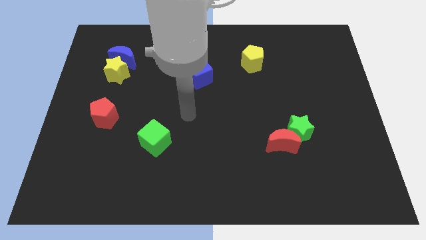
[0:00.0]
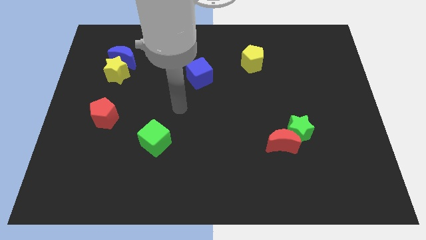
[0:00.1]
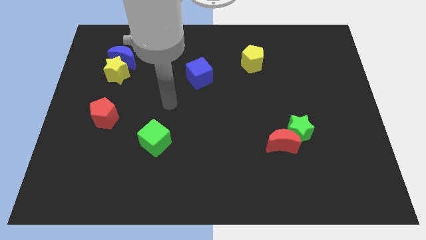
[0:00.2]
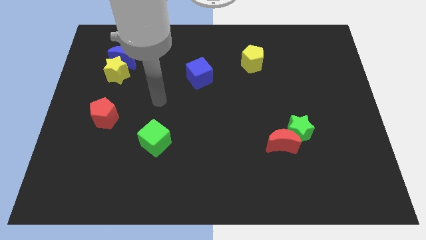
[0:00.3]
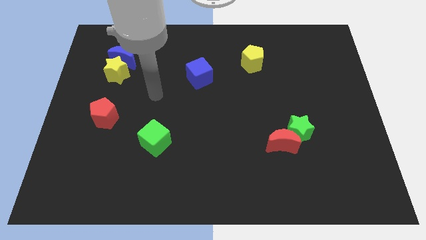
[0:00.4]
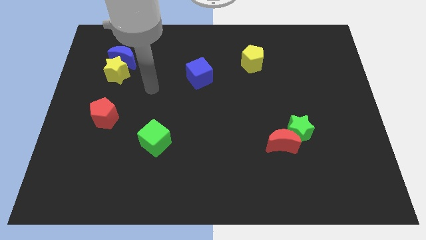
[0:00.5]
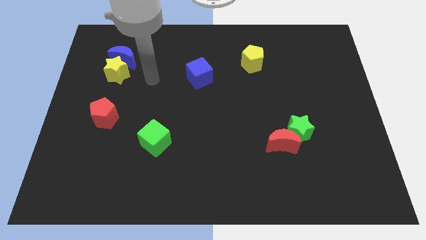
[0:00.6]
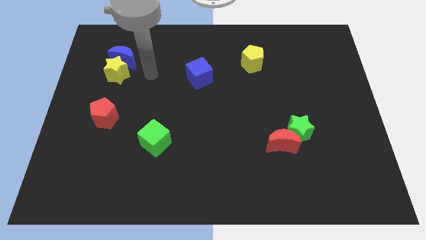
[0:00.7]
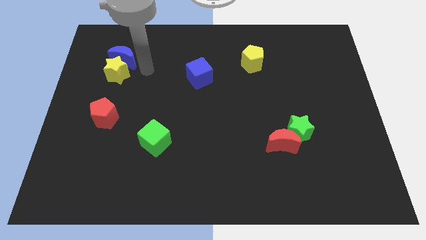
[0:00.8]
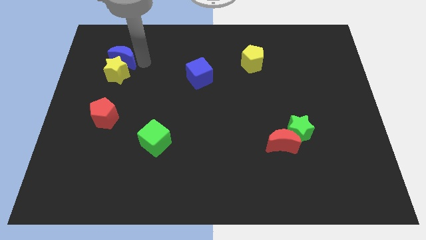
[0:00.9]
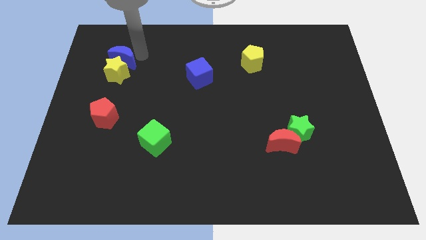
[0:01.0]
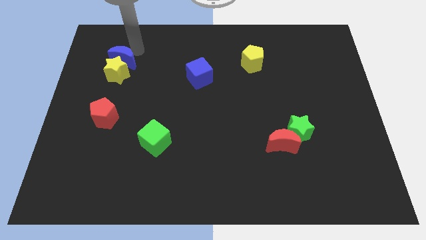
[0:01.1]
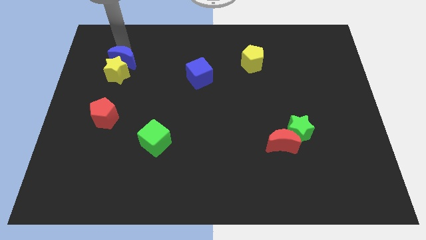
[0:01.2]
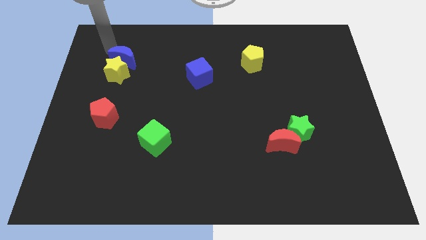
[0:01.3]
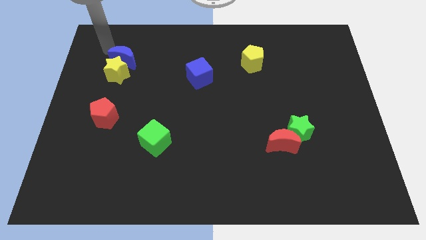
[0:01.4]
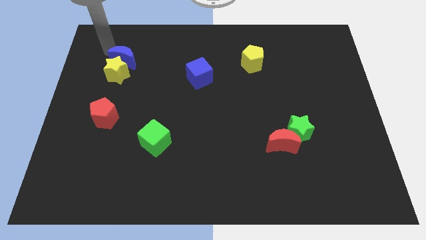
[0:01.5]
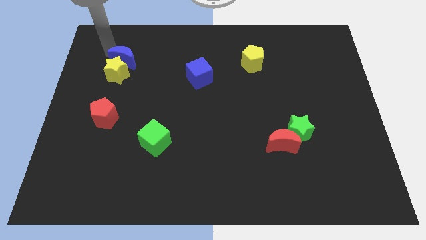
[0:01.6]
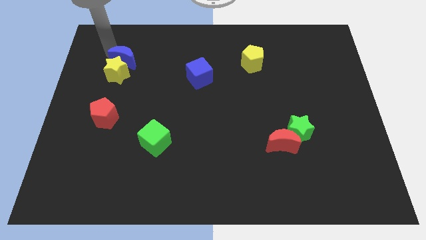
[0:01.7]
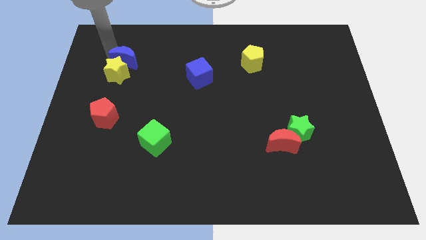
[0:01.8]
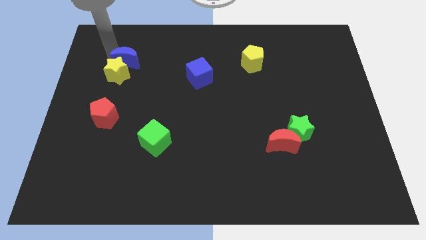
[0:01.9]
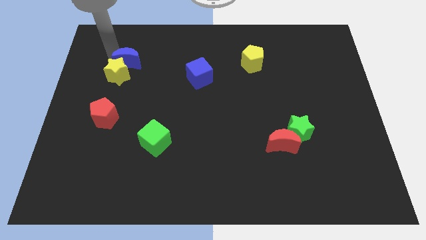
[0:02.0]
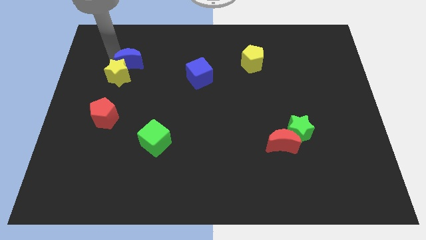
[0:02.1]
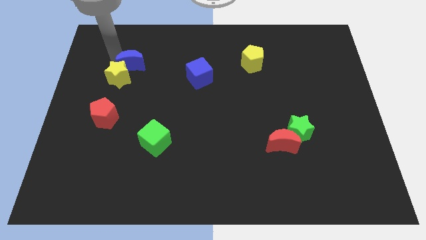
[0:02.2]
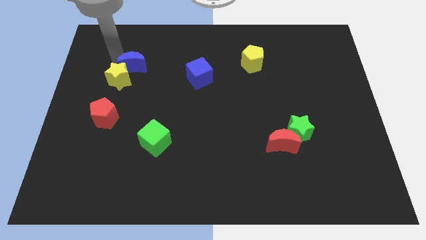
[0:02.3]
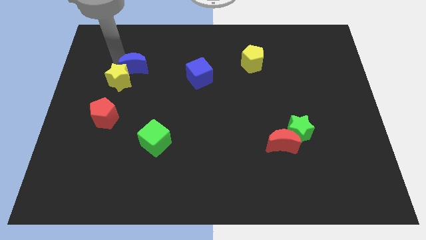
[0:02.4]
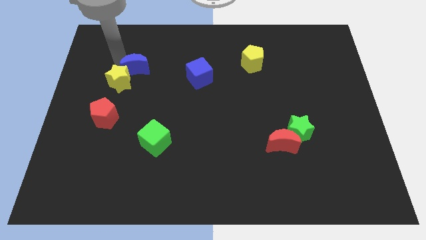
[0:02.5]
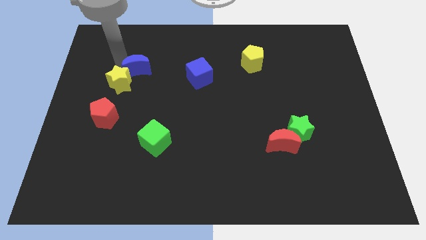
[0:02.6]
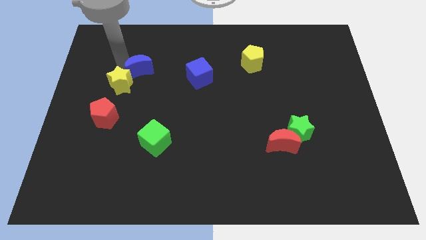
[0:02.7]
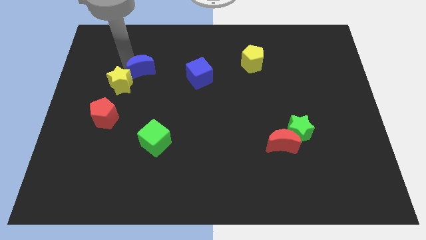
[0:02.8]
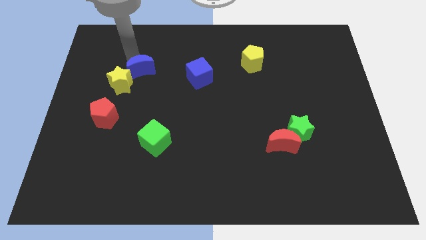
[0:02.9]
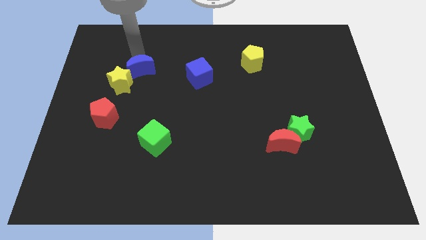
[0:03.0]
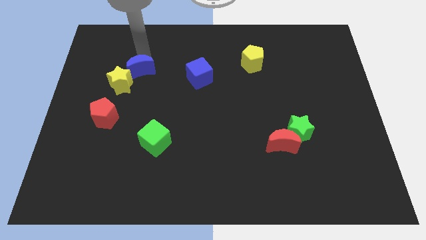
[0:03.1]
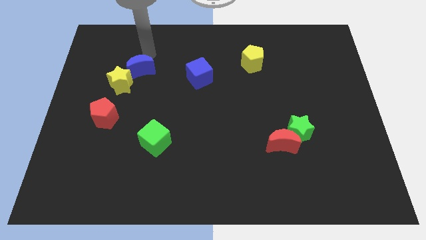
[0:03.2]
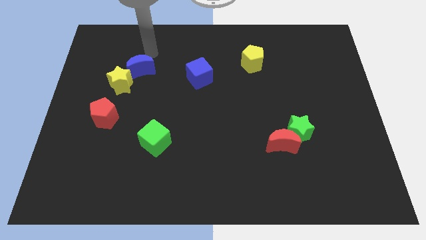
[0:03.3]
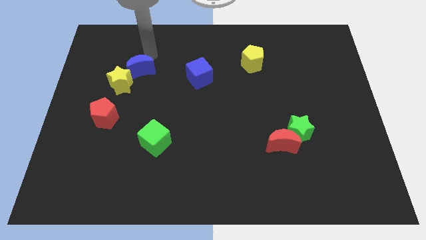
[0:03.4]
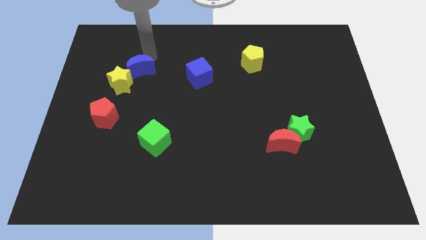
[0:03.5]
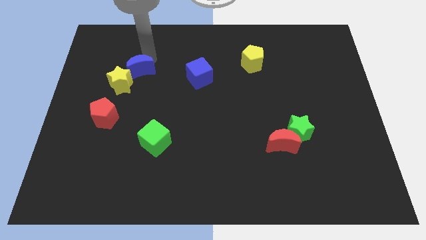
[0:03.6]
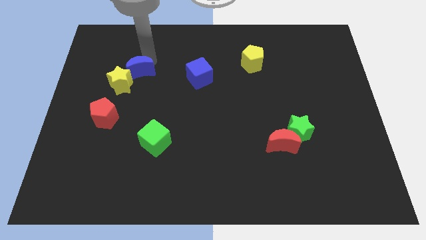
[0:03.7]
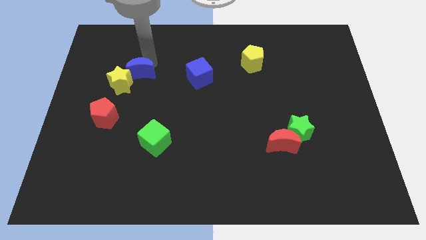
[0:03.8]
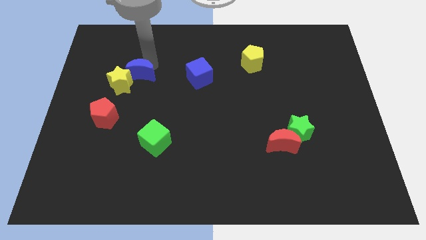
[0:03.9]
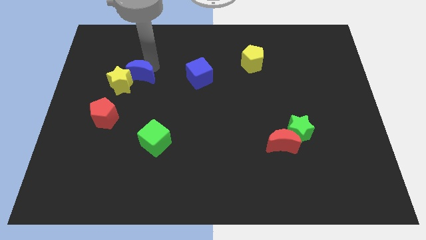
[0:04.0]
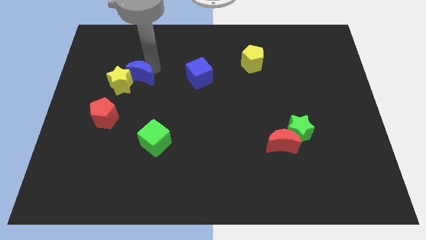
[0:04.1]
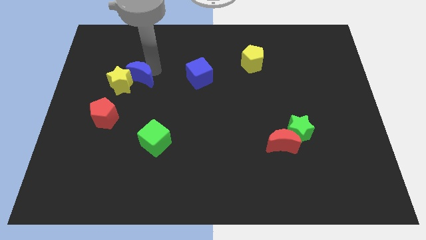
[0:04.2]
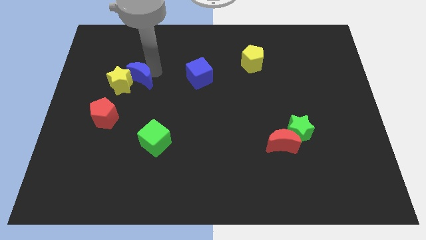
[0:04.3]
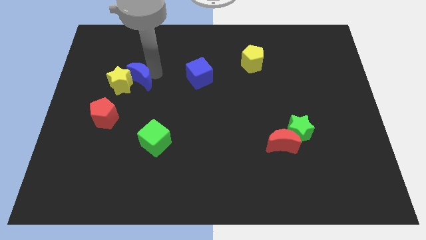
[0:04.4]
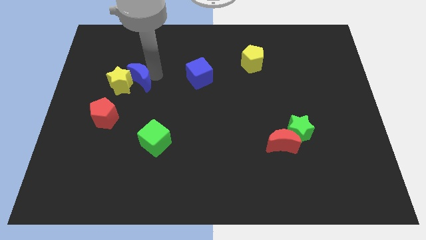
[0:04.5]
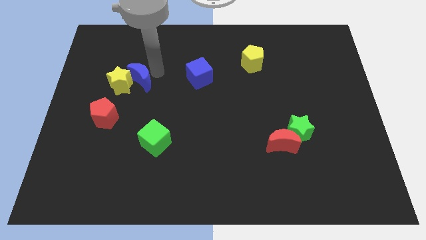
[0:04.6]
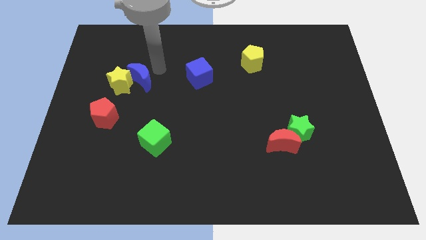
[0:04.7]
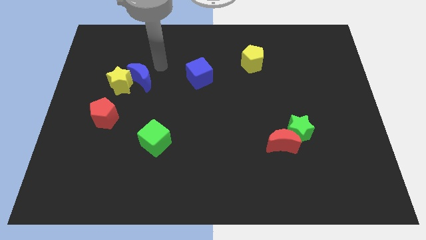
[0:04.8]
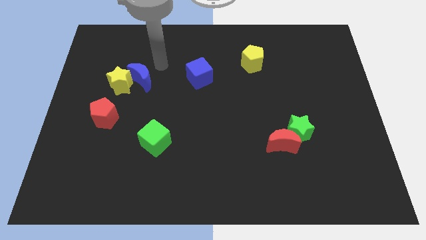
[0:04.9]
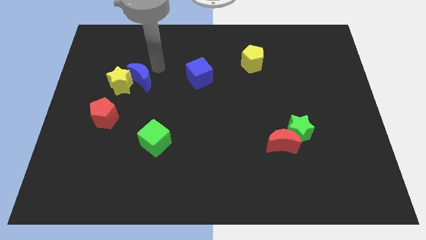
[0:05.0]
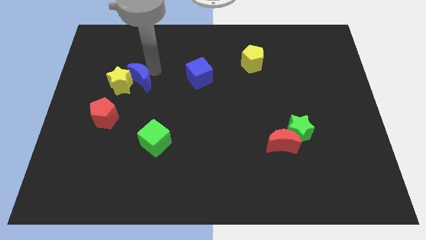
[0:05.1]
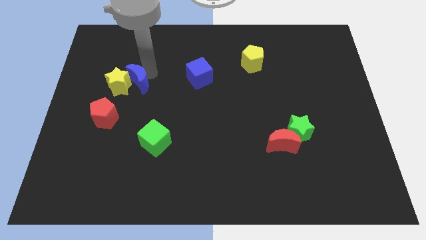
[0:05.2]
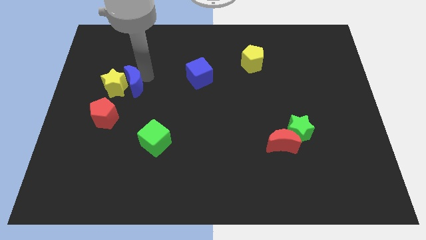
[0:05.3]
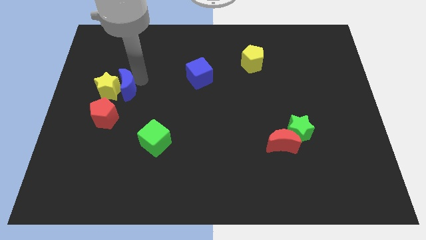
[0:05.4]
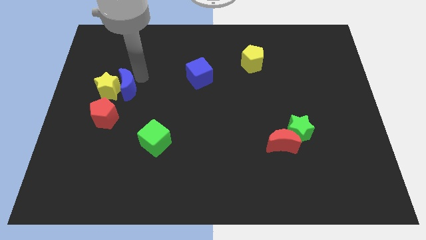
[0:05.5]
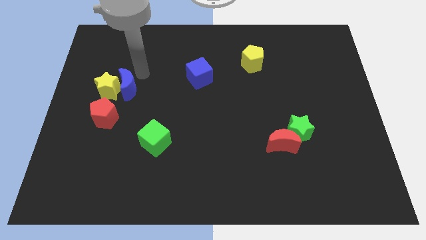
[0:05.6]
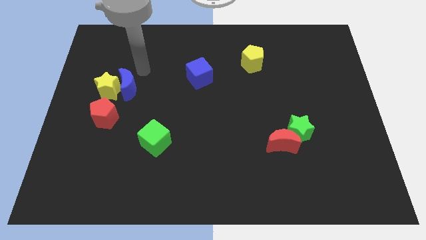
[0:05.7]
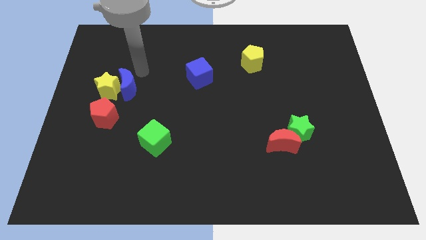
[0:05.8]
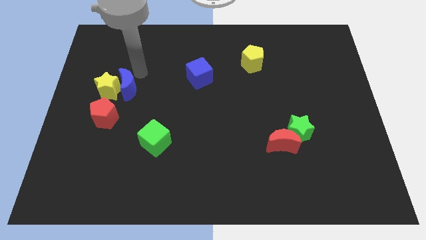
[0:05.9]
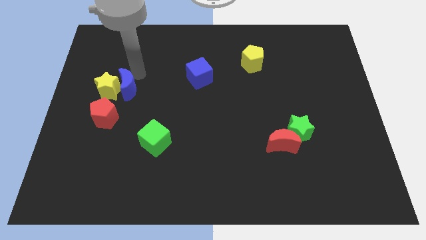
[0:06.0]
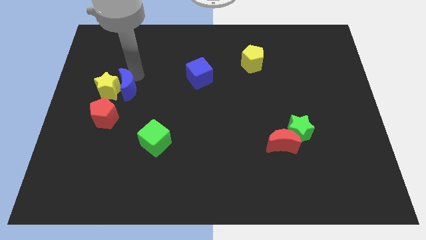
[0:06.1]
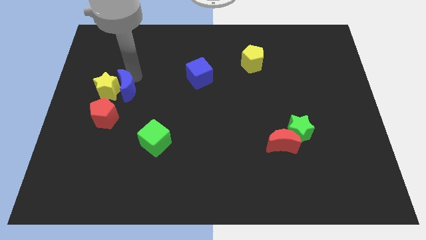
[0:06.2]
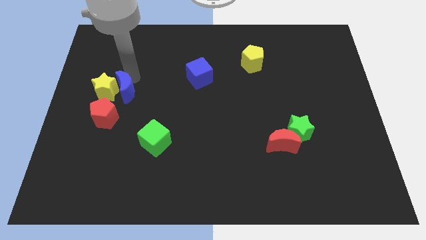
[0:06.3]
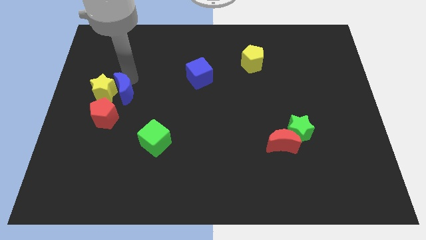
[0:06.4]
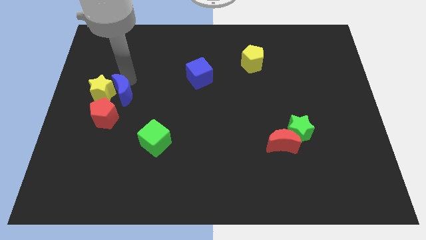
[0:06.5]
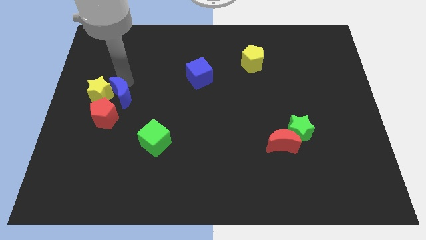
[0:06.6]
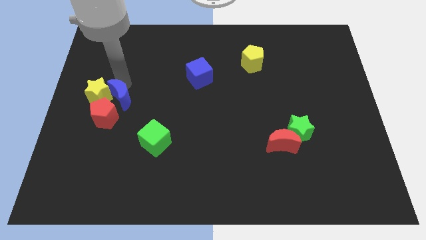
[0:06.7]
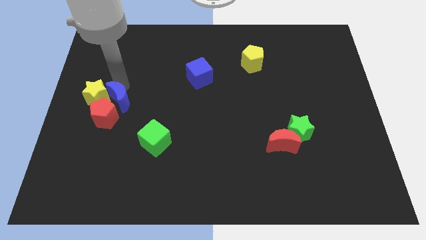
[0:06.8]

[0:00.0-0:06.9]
slide the blue moon next to the red pentagon
